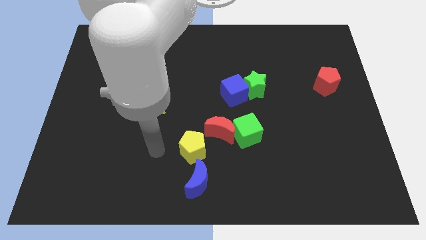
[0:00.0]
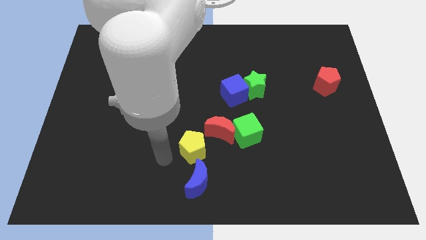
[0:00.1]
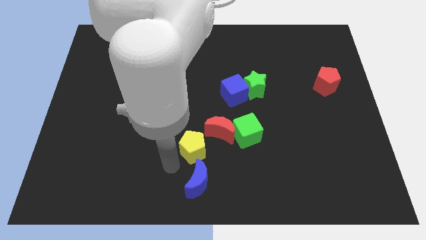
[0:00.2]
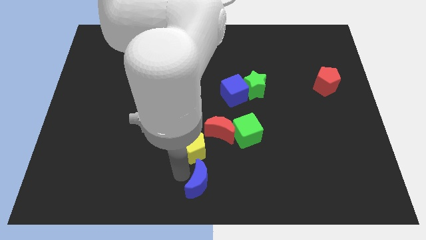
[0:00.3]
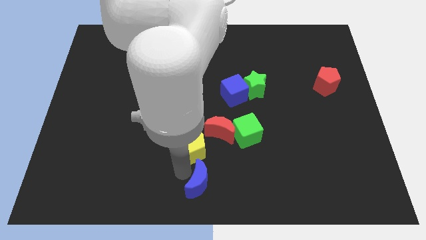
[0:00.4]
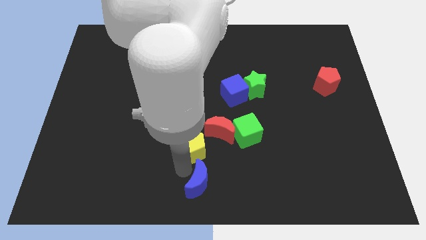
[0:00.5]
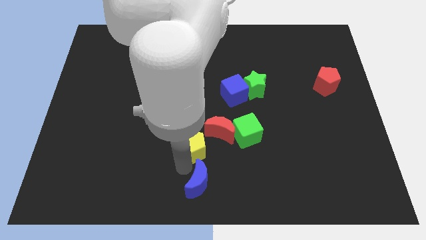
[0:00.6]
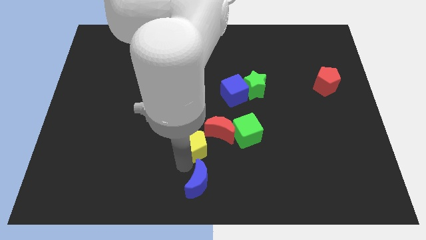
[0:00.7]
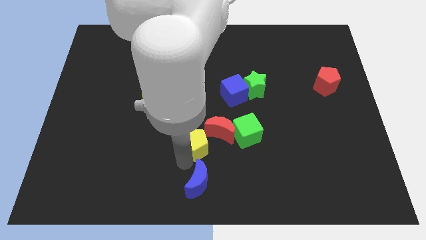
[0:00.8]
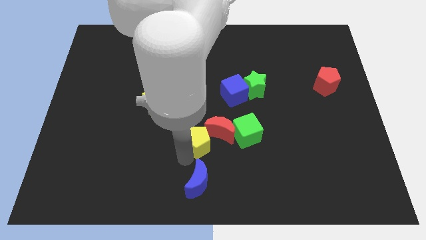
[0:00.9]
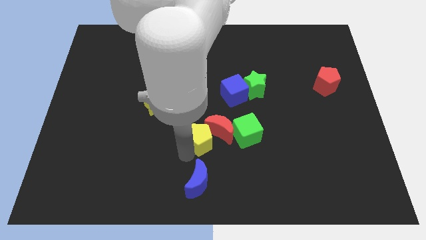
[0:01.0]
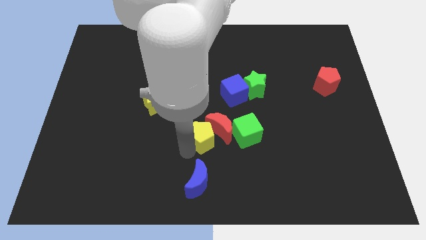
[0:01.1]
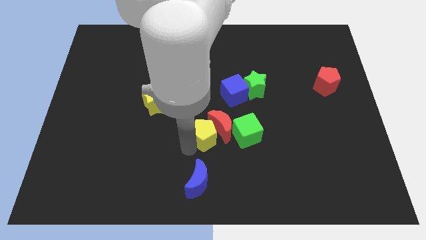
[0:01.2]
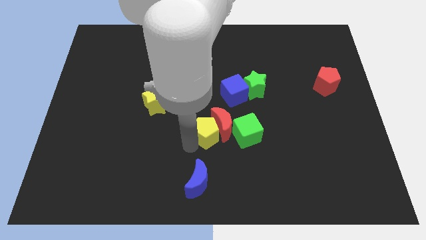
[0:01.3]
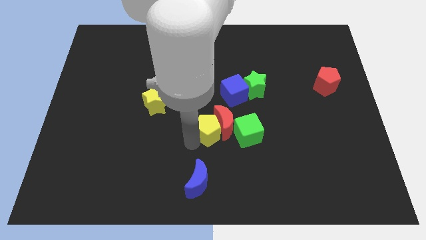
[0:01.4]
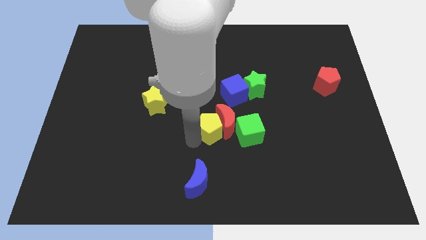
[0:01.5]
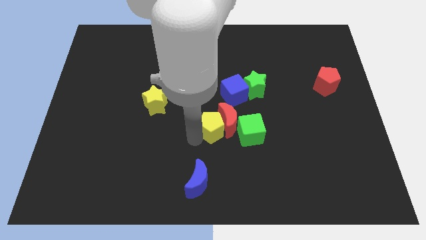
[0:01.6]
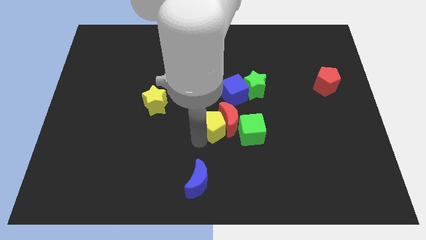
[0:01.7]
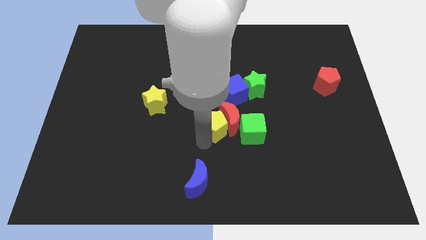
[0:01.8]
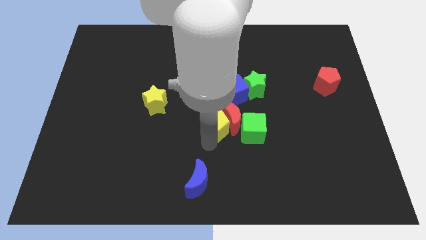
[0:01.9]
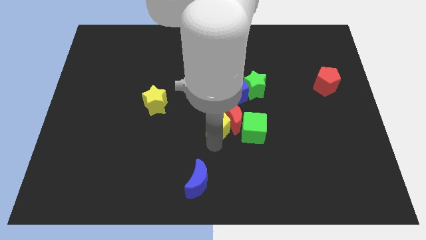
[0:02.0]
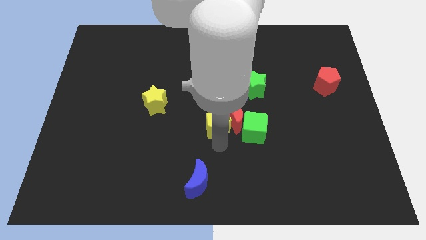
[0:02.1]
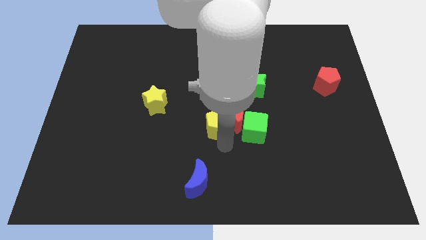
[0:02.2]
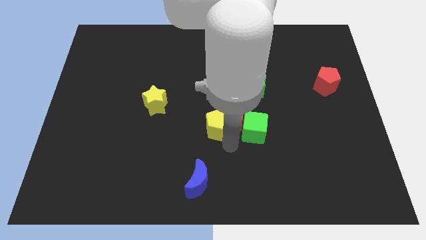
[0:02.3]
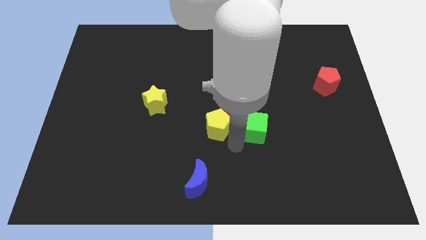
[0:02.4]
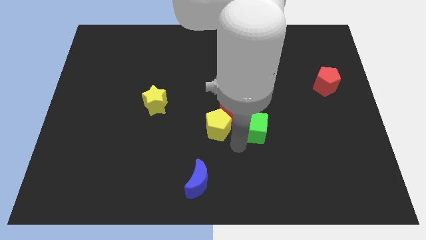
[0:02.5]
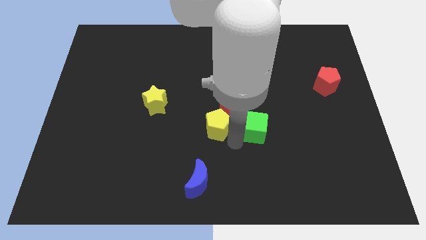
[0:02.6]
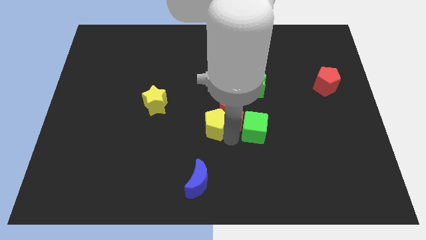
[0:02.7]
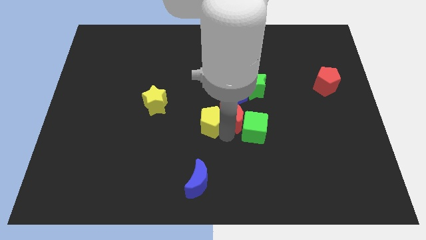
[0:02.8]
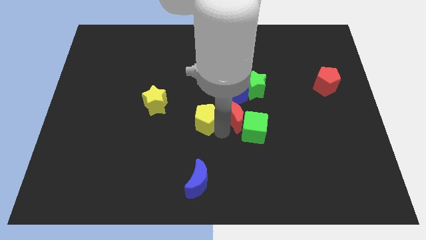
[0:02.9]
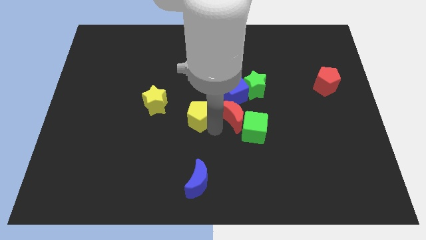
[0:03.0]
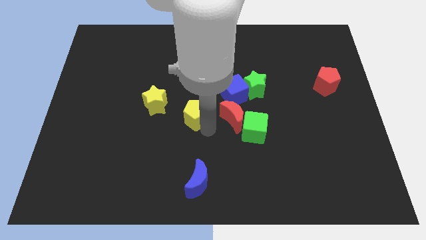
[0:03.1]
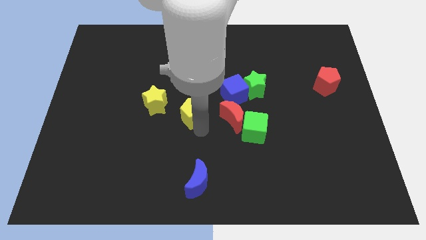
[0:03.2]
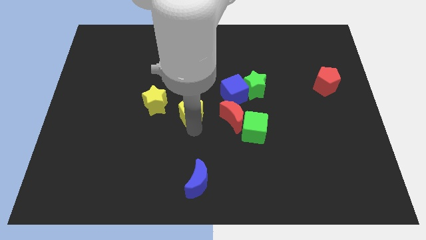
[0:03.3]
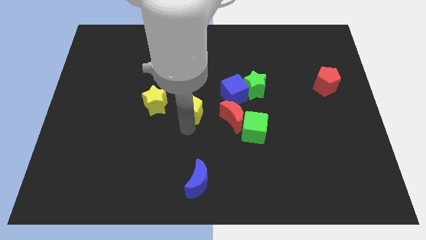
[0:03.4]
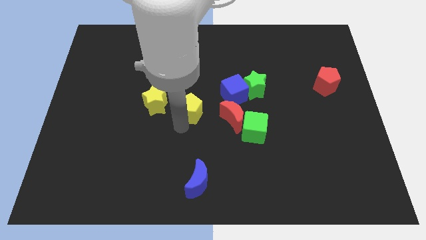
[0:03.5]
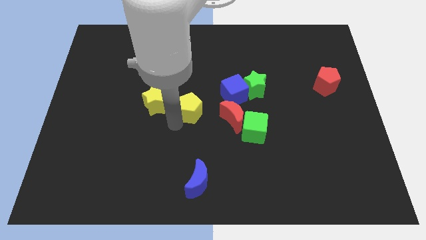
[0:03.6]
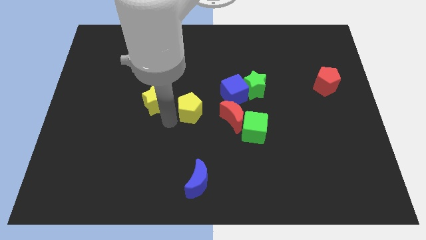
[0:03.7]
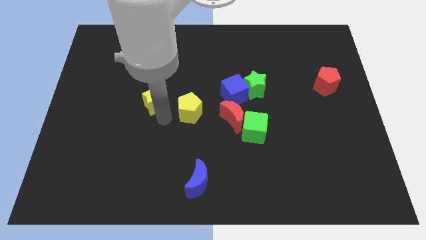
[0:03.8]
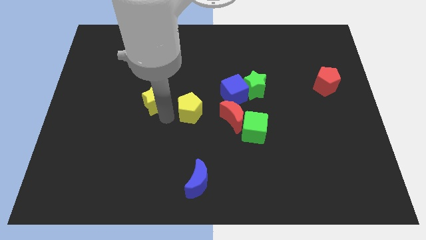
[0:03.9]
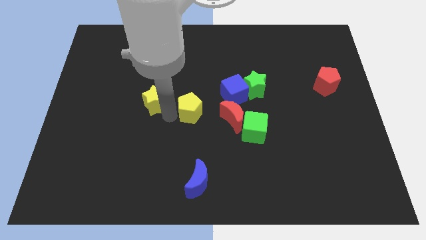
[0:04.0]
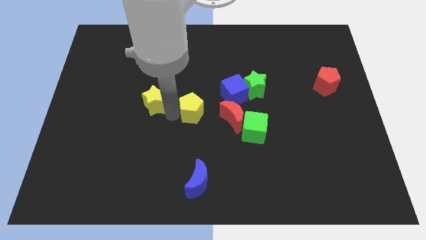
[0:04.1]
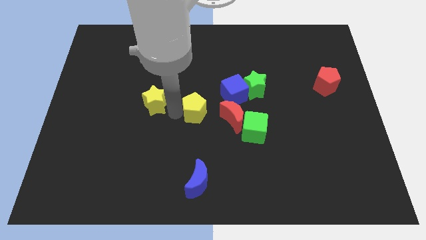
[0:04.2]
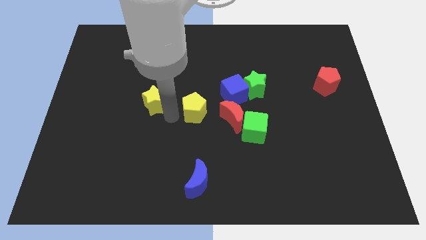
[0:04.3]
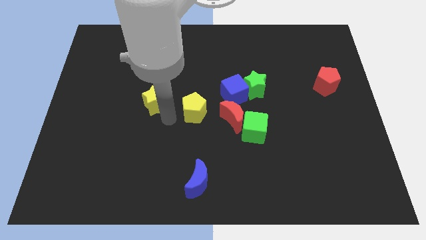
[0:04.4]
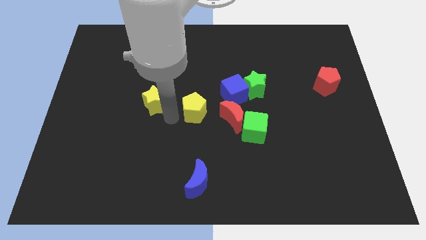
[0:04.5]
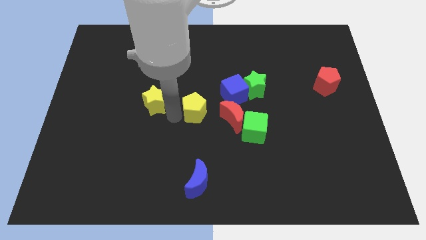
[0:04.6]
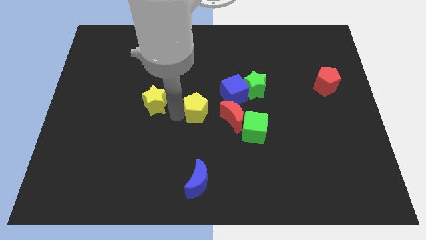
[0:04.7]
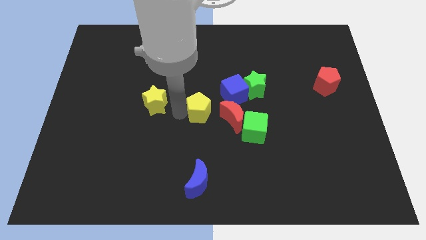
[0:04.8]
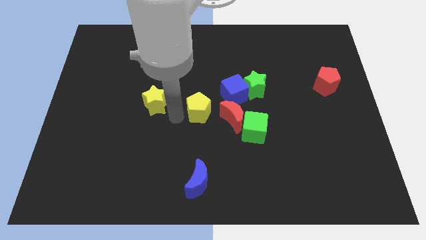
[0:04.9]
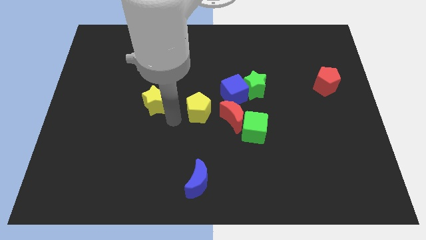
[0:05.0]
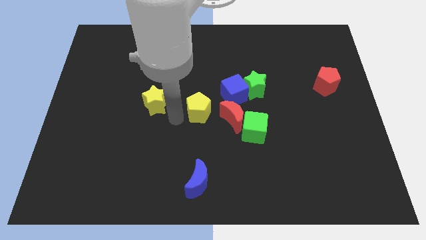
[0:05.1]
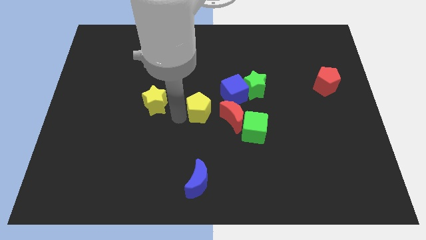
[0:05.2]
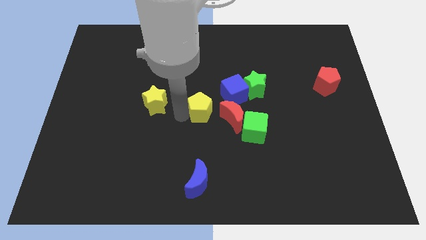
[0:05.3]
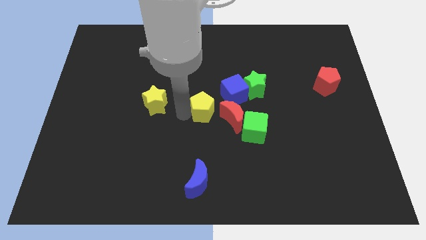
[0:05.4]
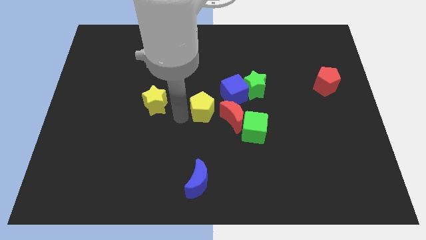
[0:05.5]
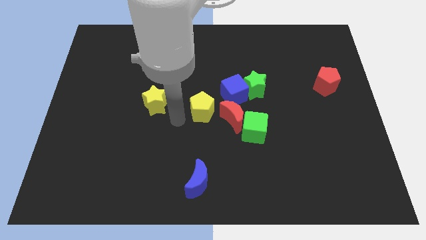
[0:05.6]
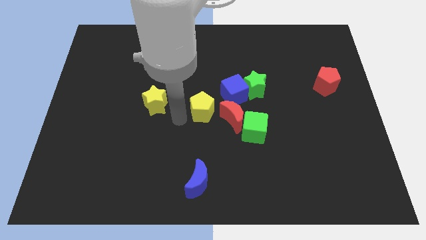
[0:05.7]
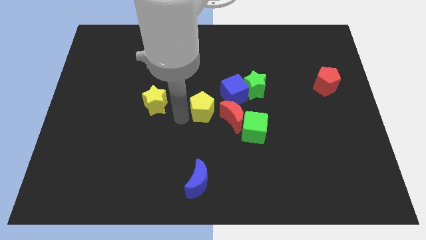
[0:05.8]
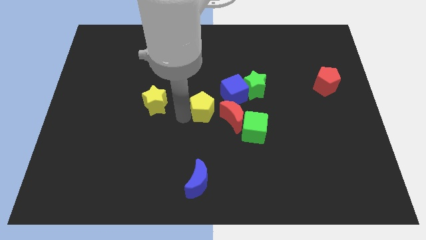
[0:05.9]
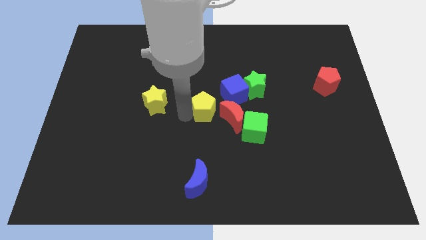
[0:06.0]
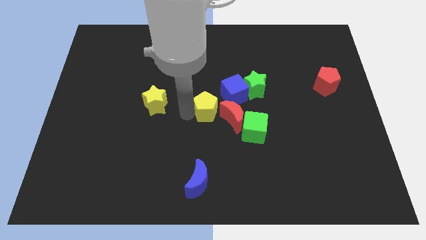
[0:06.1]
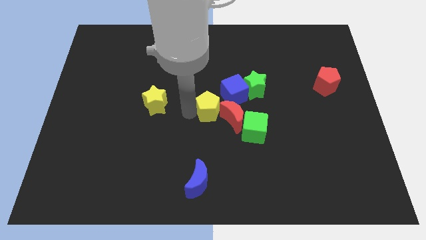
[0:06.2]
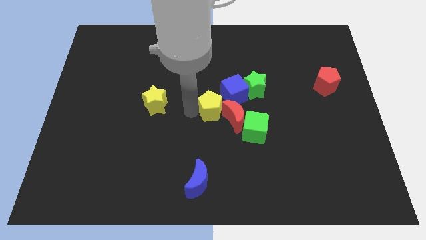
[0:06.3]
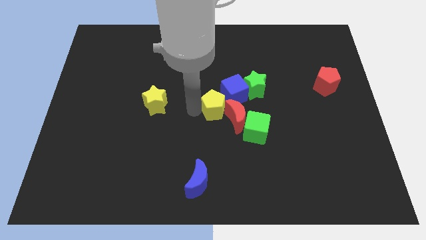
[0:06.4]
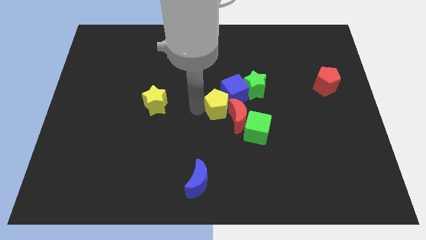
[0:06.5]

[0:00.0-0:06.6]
push the yellow pentagon close to the blue cube

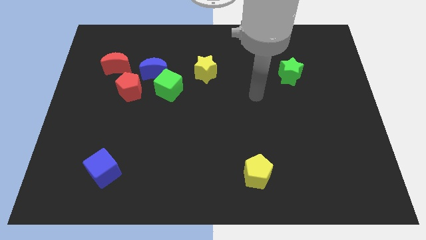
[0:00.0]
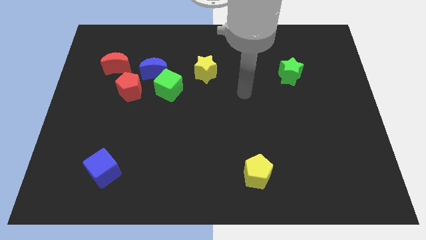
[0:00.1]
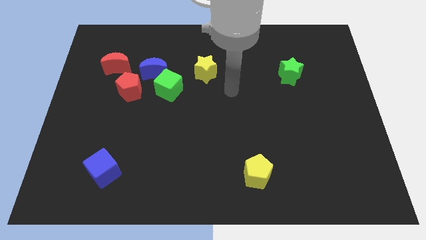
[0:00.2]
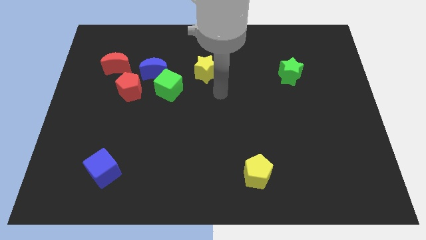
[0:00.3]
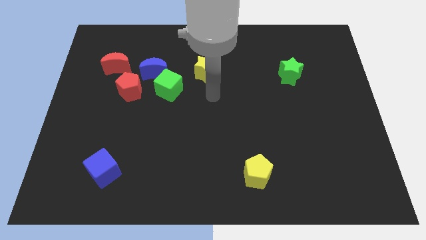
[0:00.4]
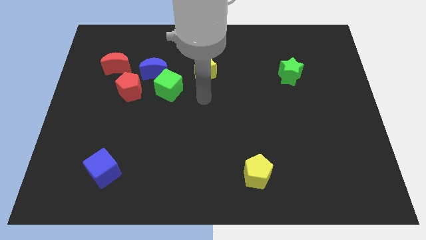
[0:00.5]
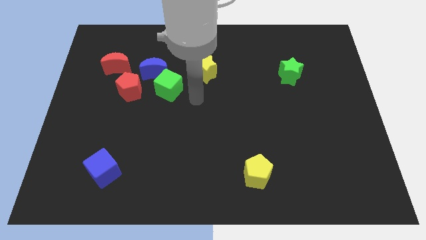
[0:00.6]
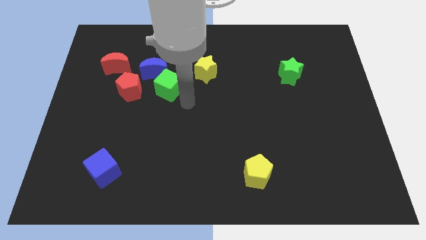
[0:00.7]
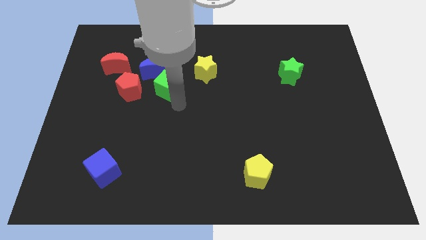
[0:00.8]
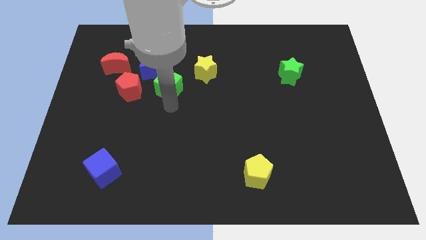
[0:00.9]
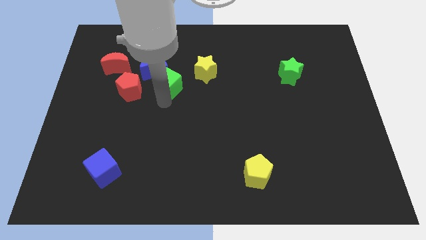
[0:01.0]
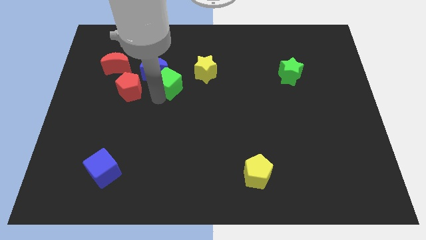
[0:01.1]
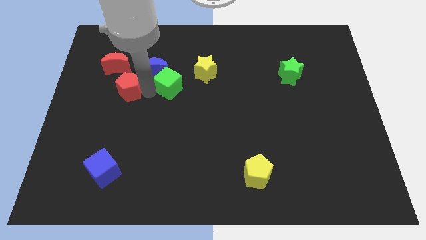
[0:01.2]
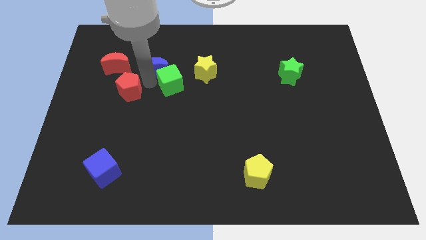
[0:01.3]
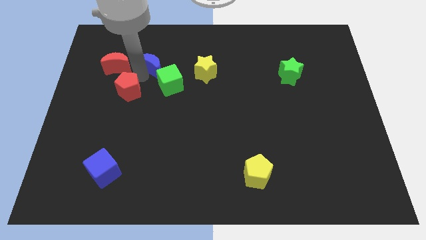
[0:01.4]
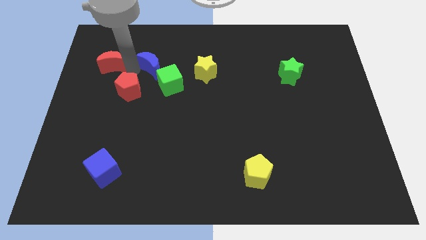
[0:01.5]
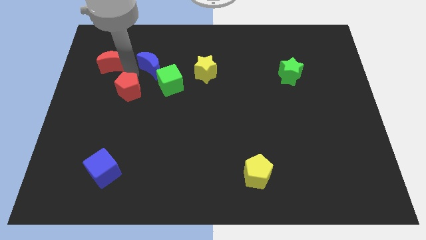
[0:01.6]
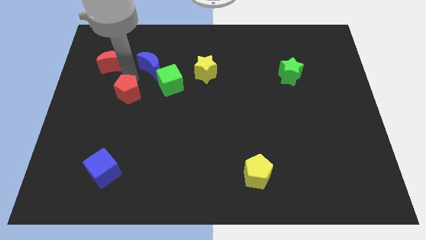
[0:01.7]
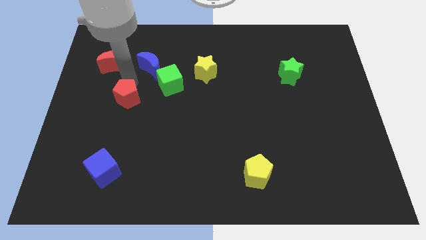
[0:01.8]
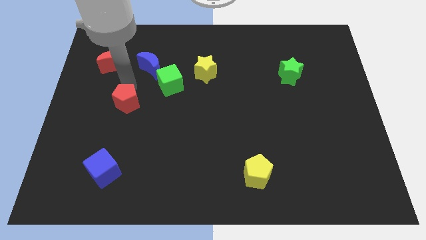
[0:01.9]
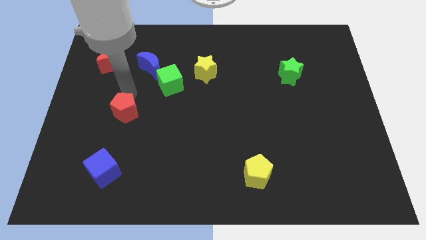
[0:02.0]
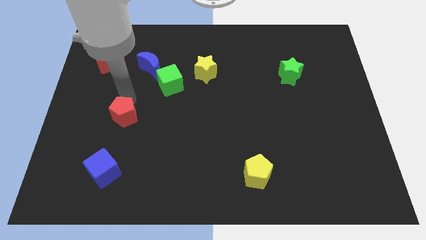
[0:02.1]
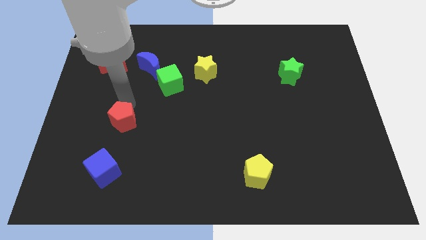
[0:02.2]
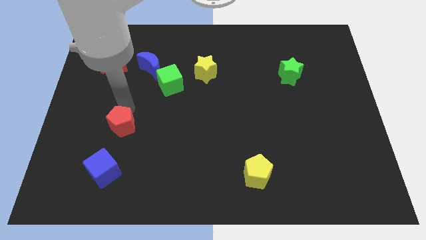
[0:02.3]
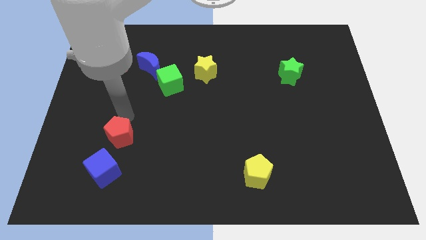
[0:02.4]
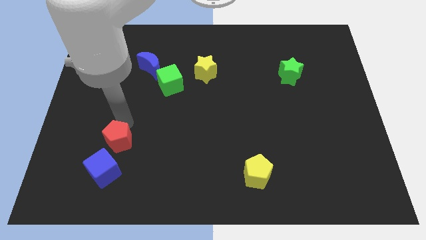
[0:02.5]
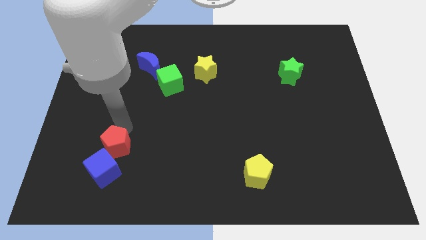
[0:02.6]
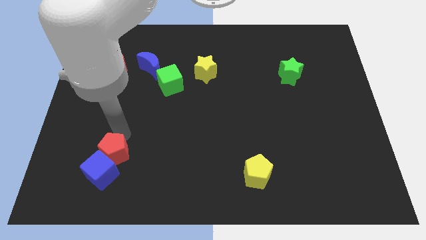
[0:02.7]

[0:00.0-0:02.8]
move the red pentagon next to the blue cube
